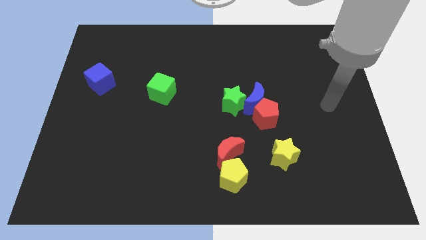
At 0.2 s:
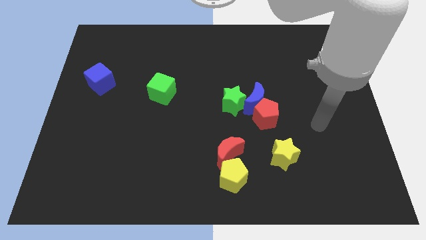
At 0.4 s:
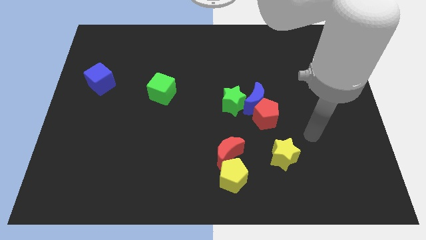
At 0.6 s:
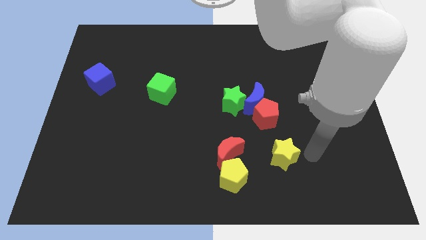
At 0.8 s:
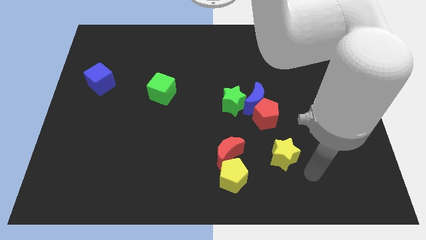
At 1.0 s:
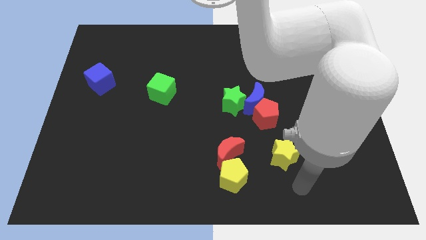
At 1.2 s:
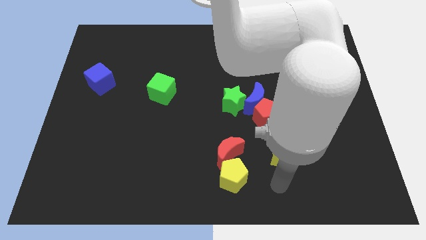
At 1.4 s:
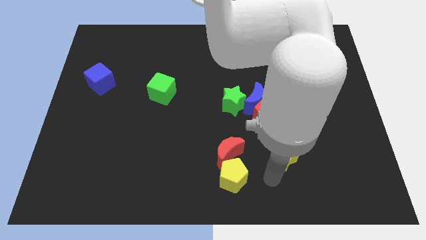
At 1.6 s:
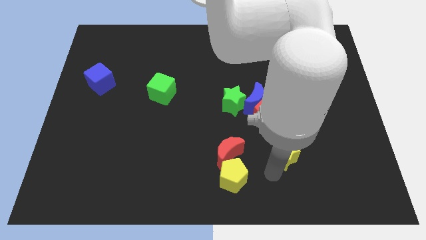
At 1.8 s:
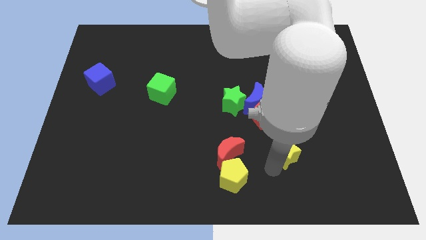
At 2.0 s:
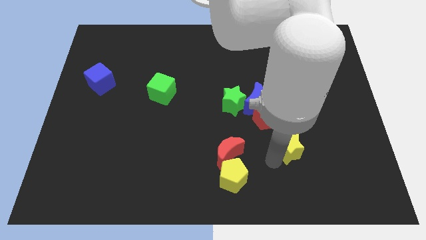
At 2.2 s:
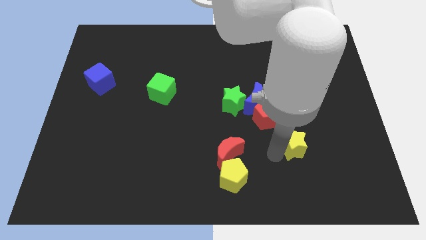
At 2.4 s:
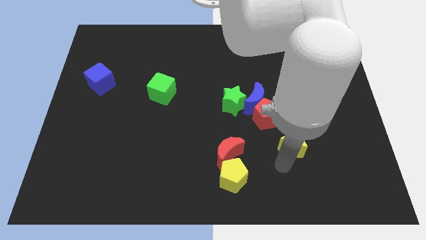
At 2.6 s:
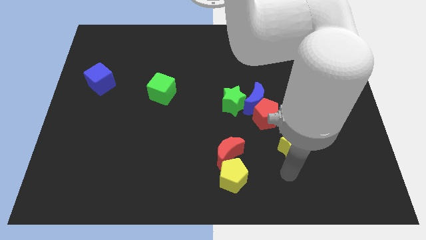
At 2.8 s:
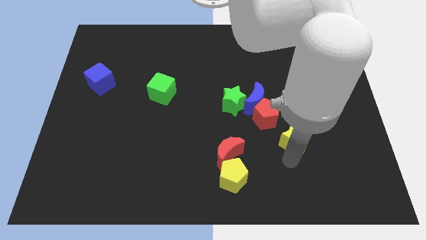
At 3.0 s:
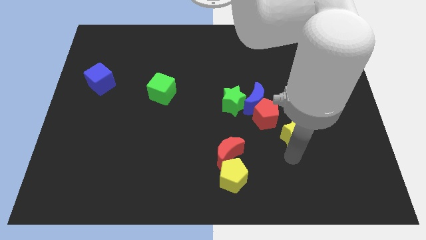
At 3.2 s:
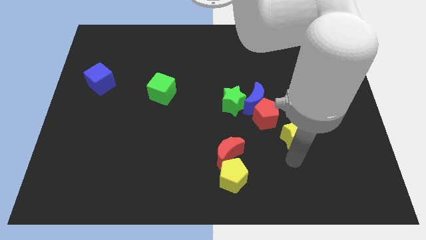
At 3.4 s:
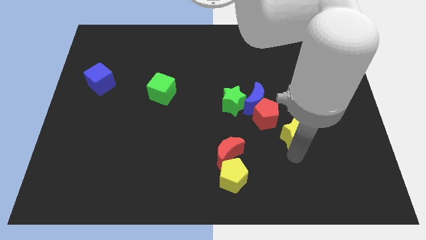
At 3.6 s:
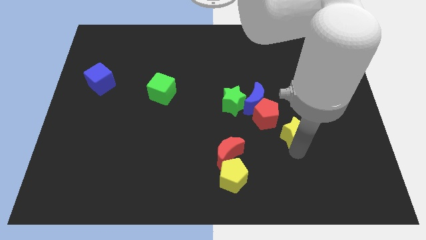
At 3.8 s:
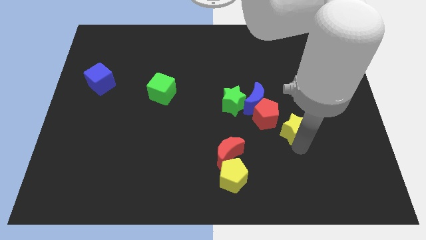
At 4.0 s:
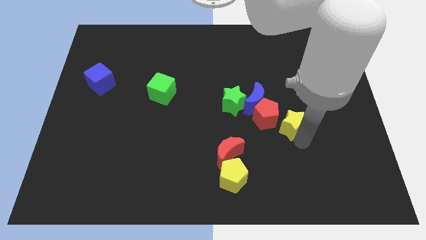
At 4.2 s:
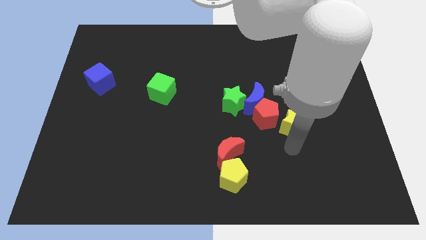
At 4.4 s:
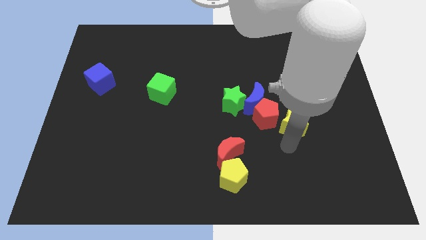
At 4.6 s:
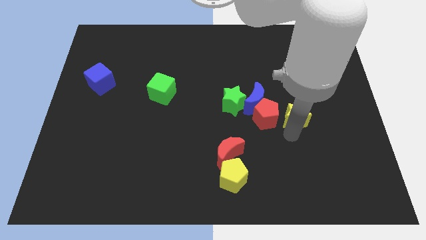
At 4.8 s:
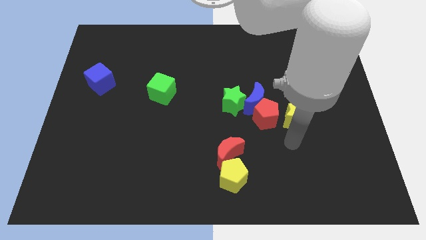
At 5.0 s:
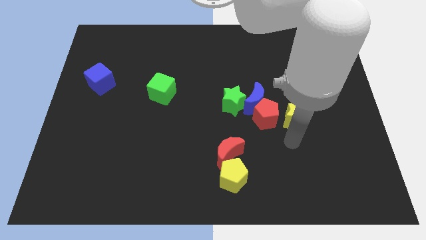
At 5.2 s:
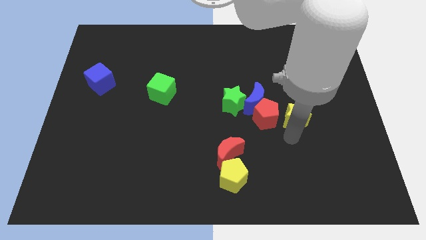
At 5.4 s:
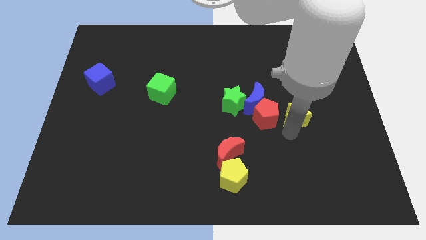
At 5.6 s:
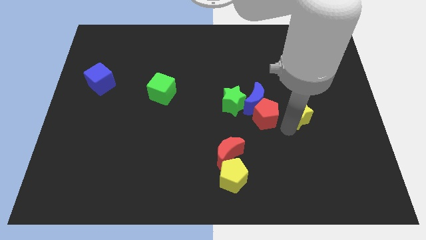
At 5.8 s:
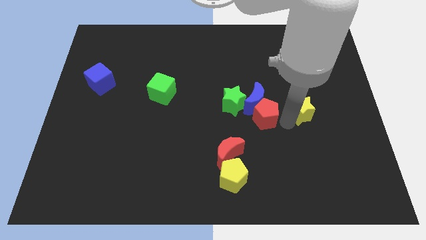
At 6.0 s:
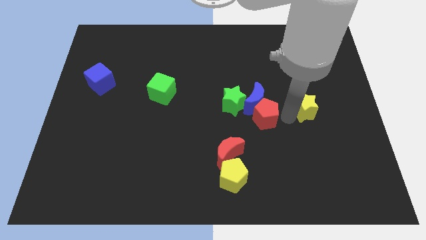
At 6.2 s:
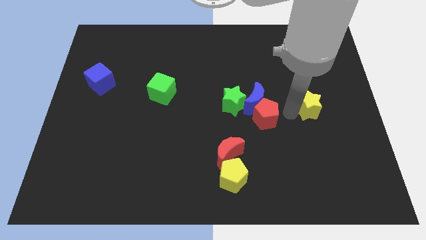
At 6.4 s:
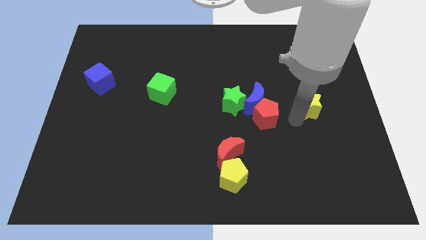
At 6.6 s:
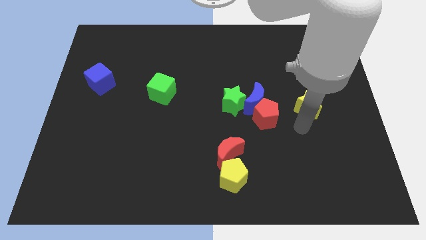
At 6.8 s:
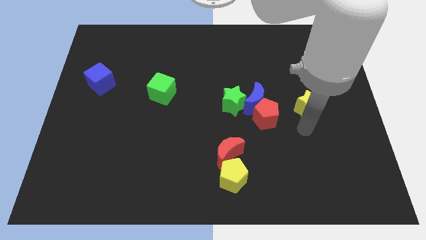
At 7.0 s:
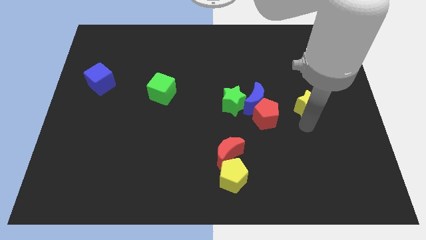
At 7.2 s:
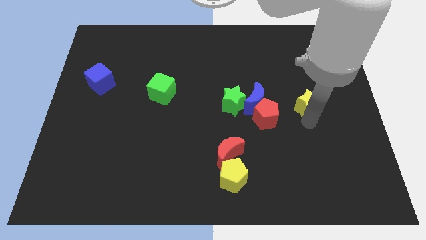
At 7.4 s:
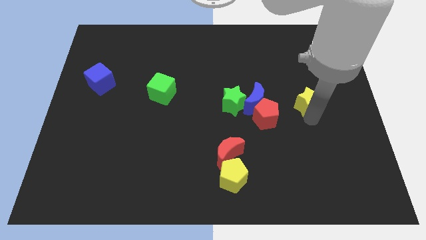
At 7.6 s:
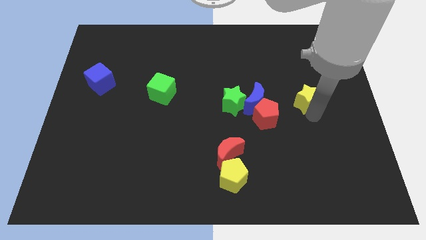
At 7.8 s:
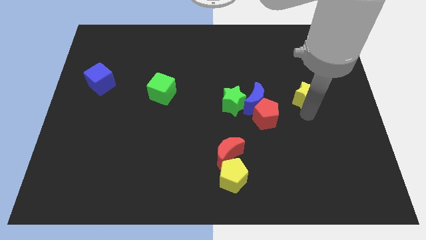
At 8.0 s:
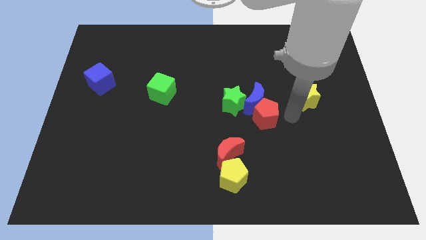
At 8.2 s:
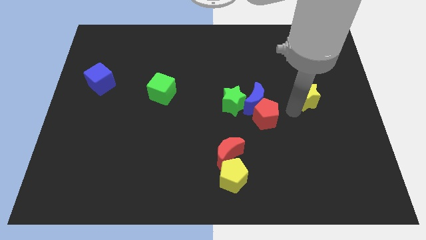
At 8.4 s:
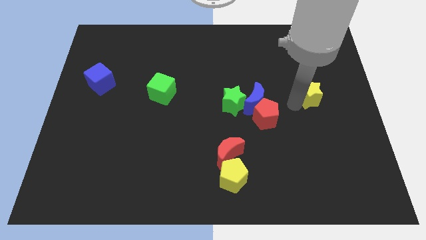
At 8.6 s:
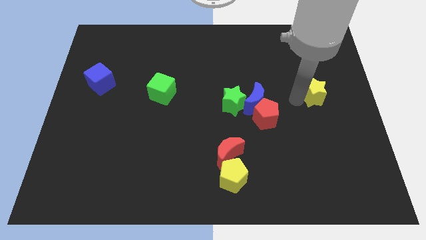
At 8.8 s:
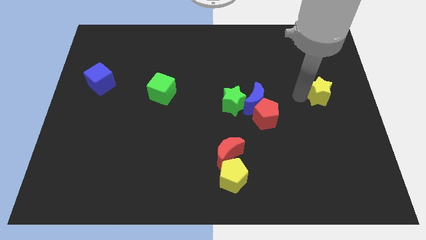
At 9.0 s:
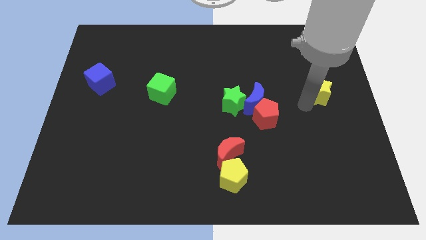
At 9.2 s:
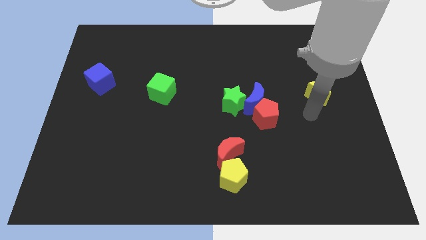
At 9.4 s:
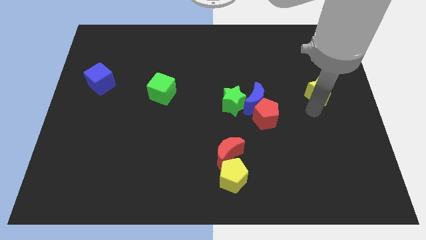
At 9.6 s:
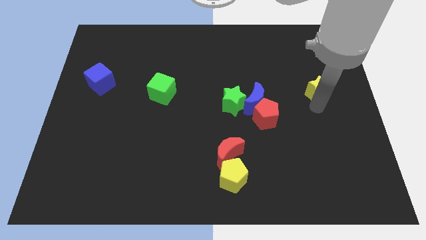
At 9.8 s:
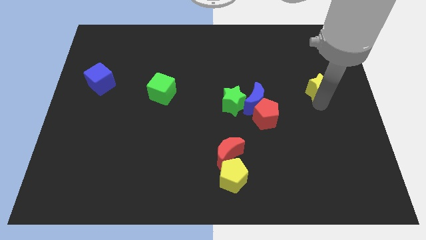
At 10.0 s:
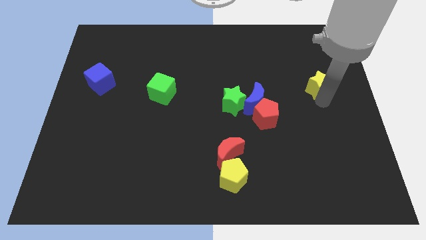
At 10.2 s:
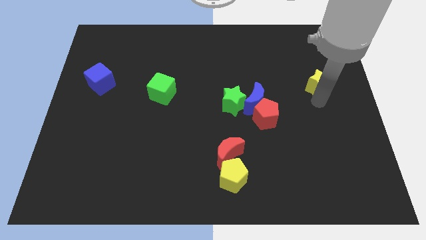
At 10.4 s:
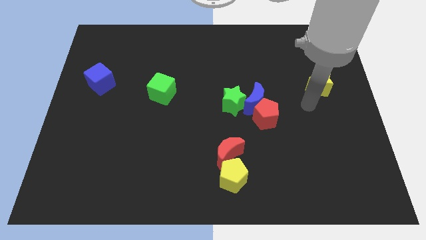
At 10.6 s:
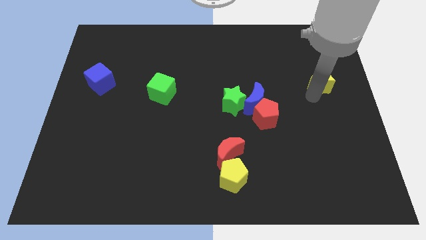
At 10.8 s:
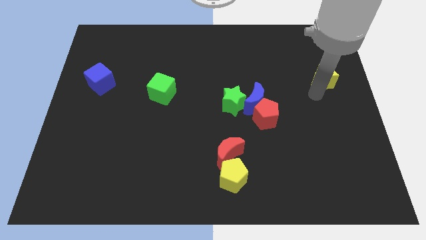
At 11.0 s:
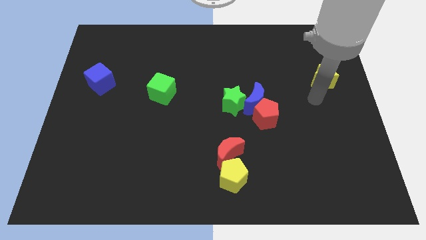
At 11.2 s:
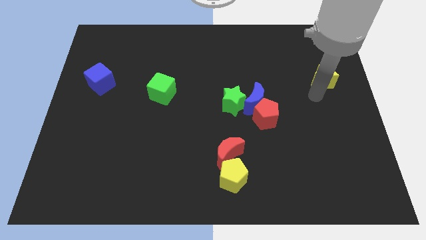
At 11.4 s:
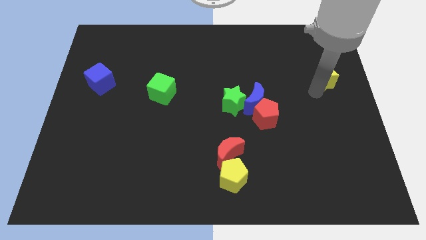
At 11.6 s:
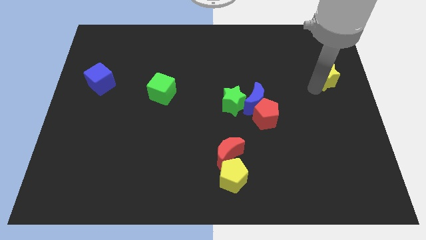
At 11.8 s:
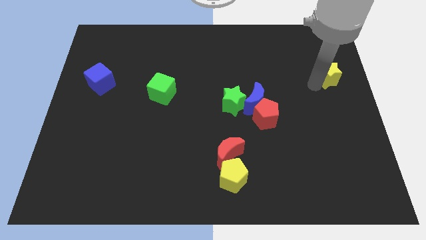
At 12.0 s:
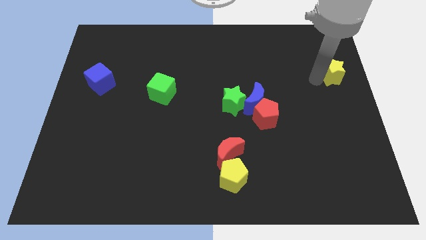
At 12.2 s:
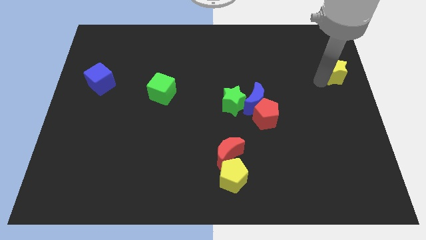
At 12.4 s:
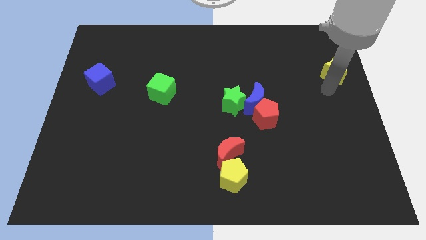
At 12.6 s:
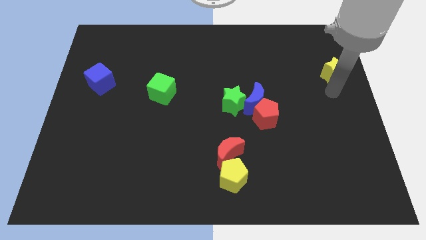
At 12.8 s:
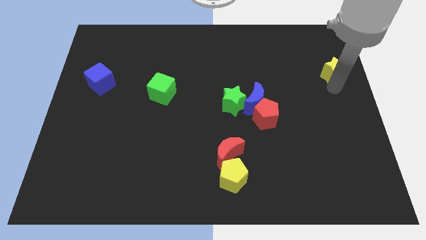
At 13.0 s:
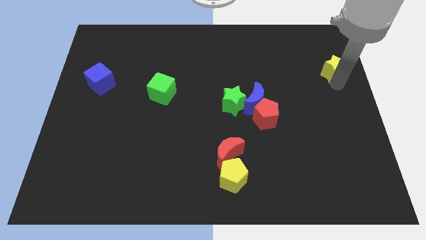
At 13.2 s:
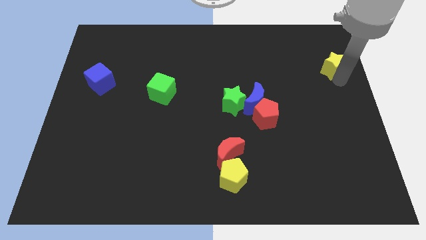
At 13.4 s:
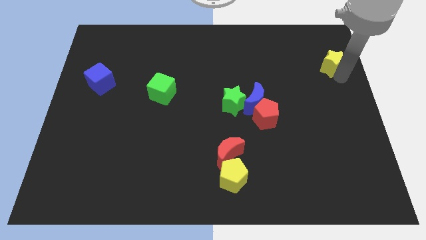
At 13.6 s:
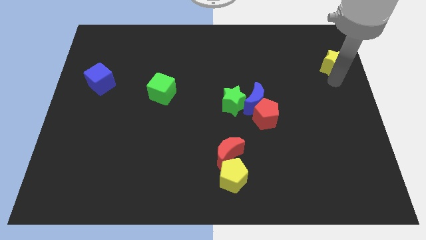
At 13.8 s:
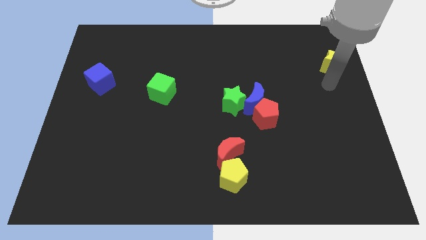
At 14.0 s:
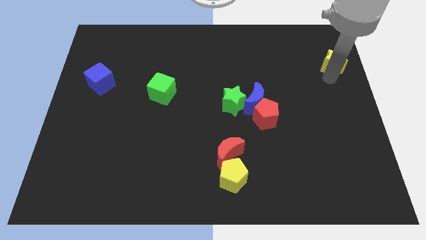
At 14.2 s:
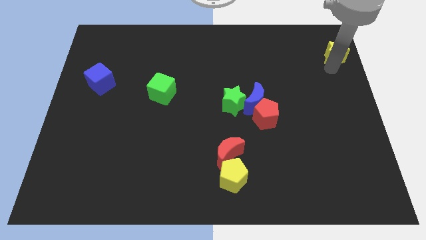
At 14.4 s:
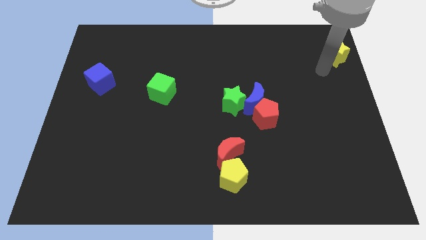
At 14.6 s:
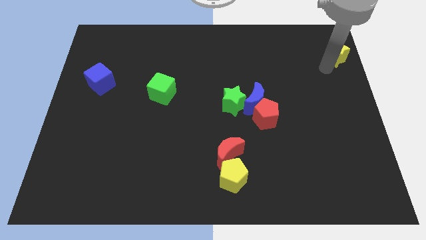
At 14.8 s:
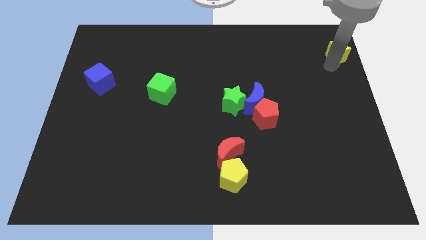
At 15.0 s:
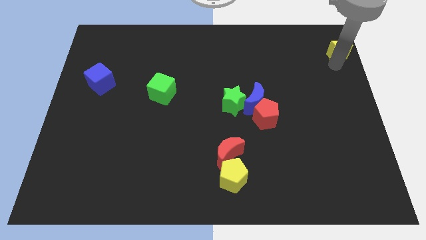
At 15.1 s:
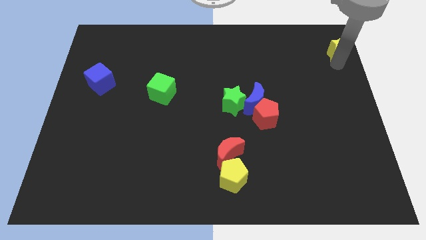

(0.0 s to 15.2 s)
slide the yellow star to the top right corner
